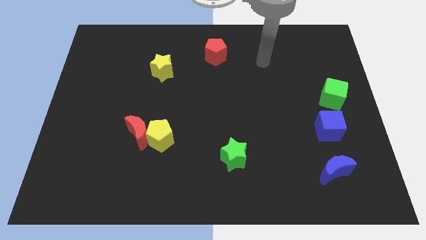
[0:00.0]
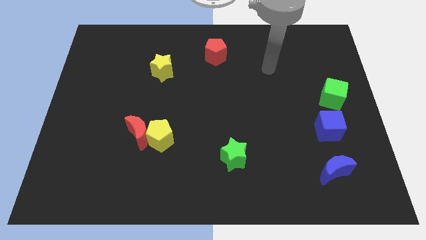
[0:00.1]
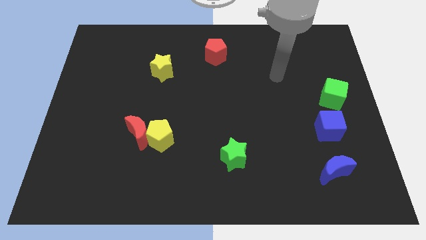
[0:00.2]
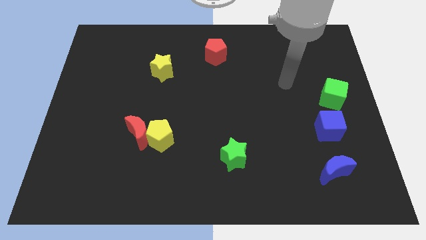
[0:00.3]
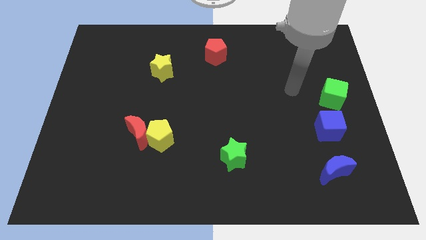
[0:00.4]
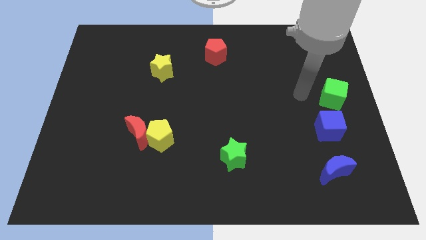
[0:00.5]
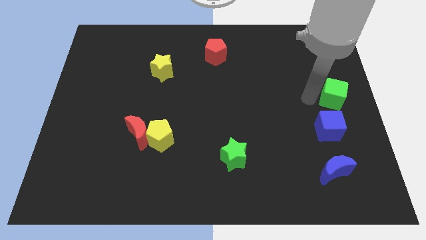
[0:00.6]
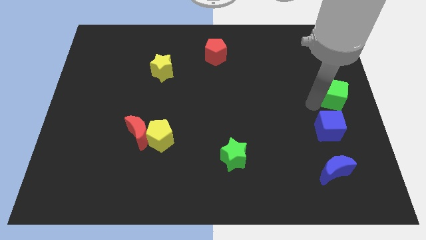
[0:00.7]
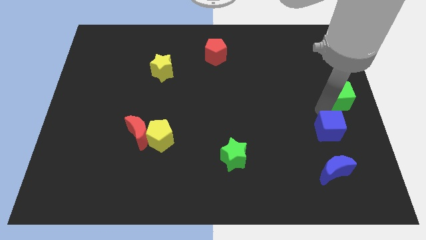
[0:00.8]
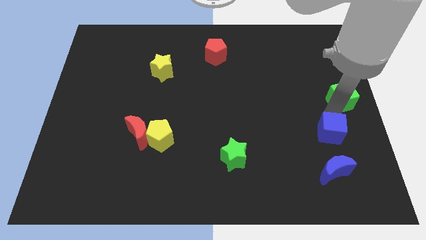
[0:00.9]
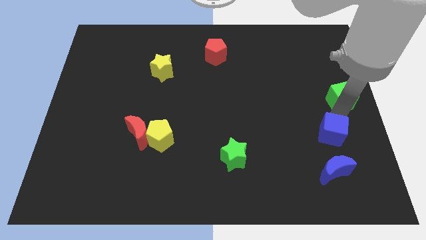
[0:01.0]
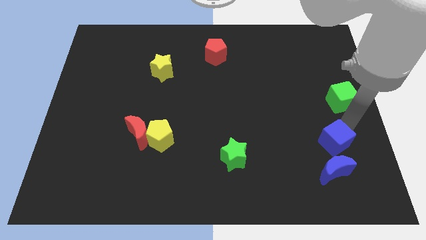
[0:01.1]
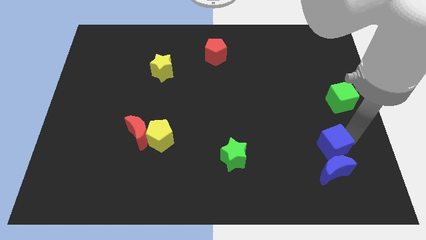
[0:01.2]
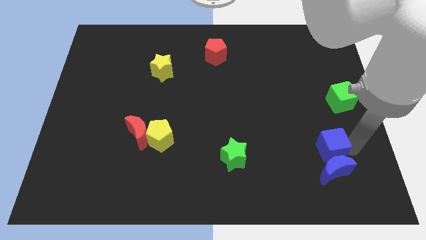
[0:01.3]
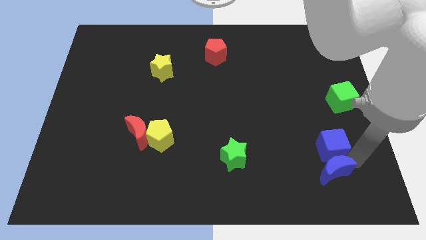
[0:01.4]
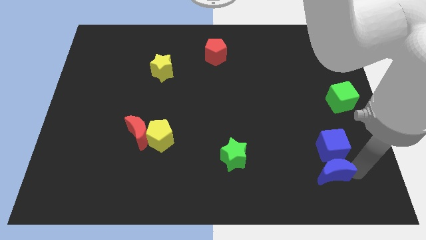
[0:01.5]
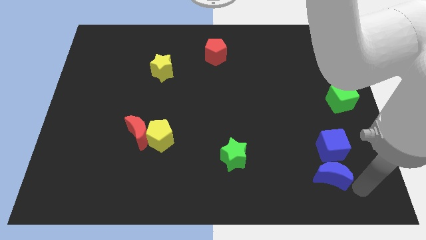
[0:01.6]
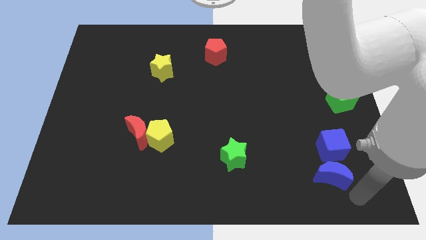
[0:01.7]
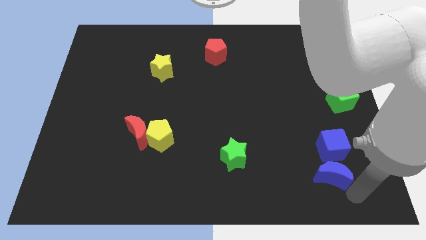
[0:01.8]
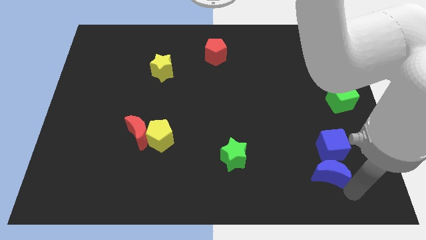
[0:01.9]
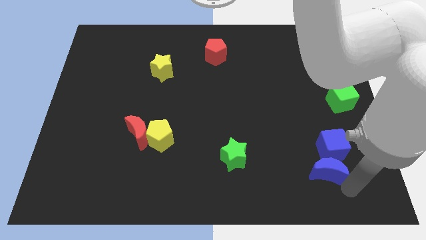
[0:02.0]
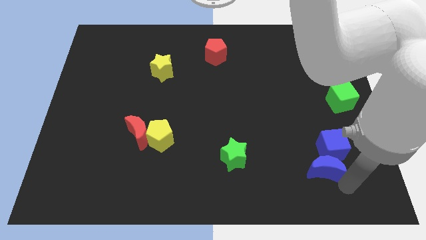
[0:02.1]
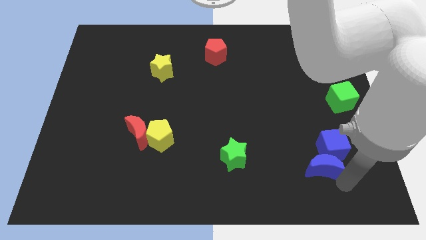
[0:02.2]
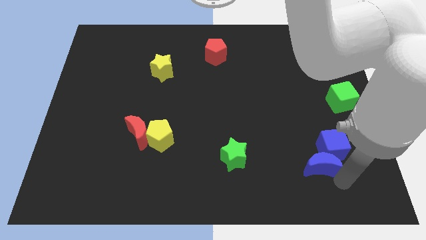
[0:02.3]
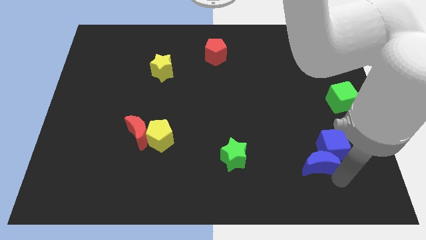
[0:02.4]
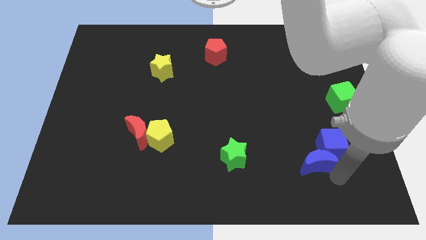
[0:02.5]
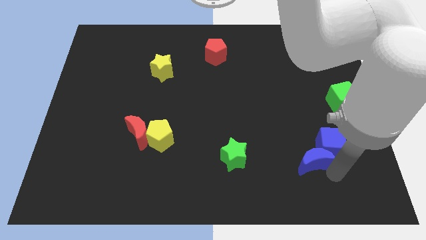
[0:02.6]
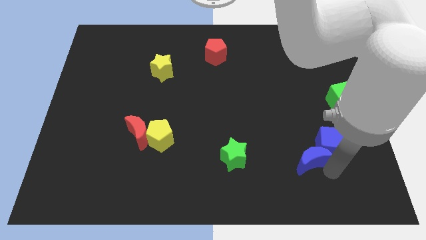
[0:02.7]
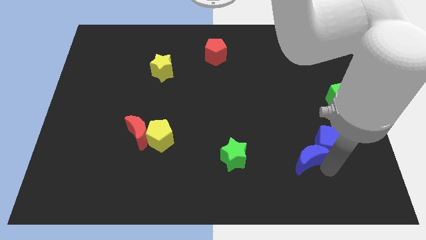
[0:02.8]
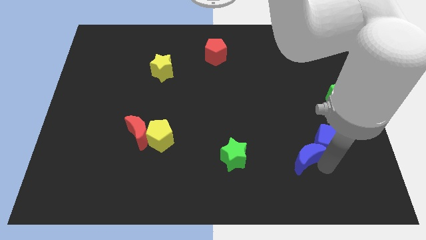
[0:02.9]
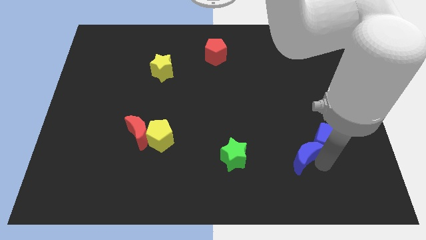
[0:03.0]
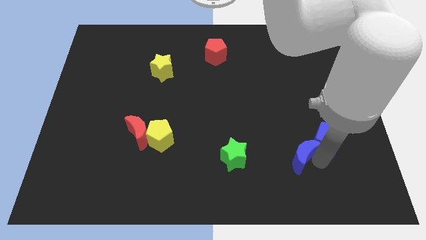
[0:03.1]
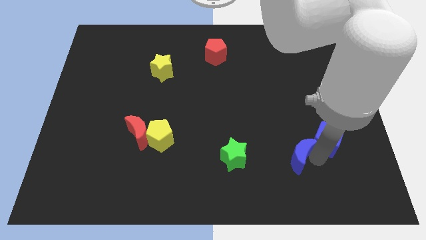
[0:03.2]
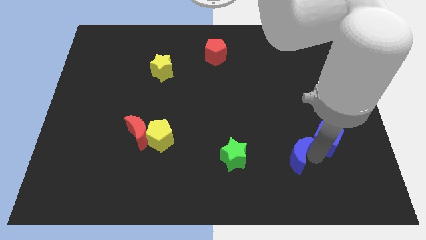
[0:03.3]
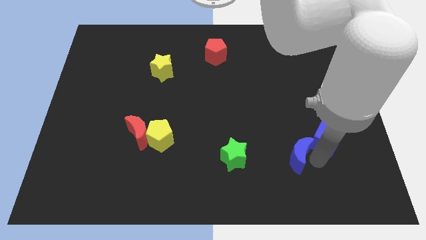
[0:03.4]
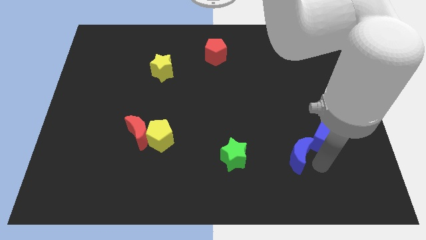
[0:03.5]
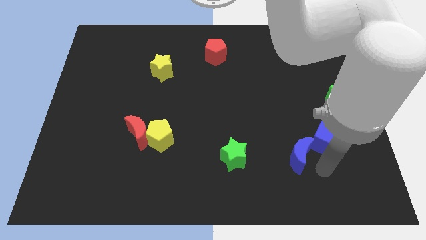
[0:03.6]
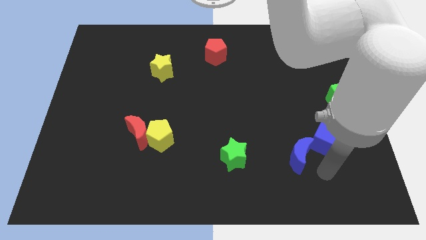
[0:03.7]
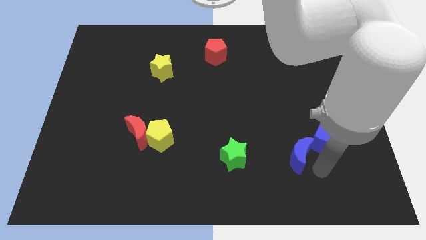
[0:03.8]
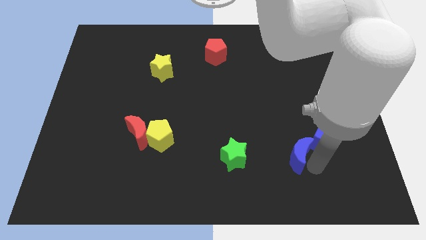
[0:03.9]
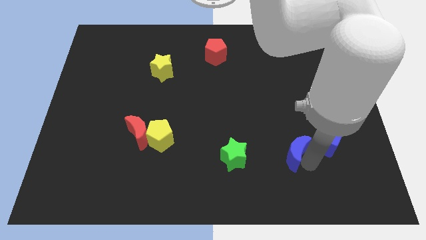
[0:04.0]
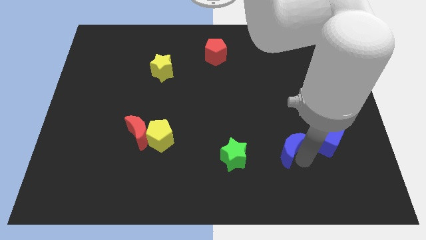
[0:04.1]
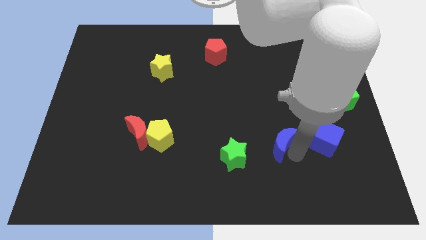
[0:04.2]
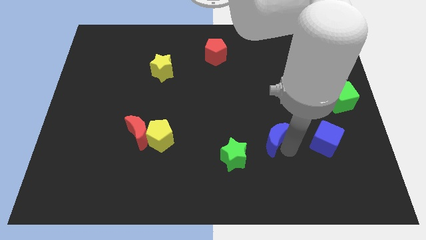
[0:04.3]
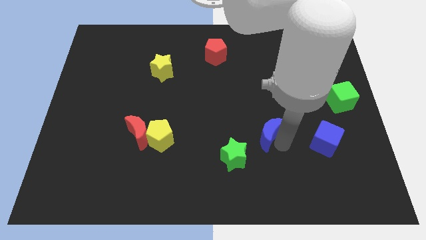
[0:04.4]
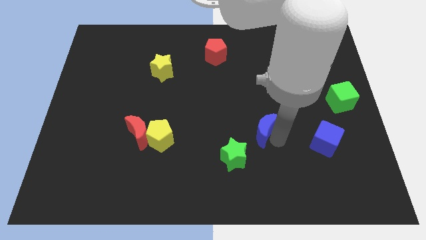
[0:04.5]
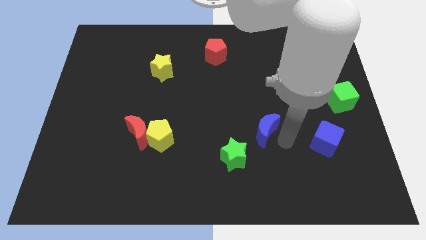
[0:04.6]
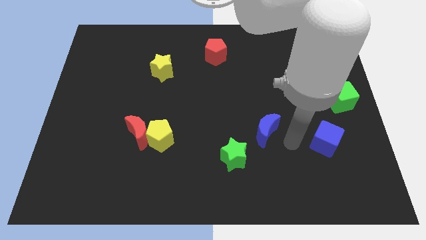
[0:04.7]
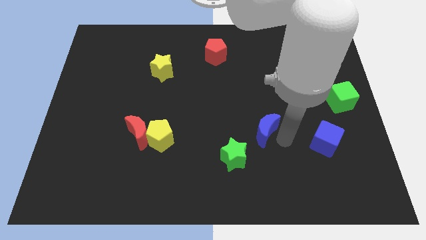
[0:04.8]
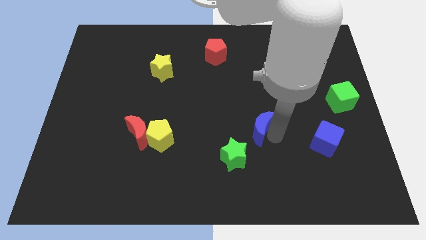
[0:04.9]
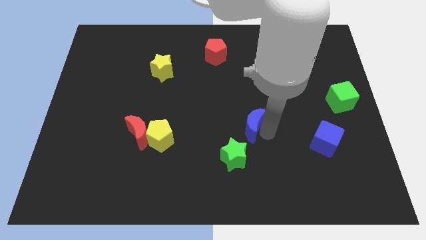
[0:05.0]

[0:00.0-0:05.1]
move the blue moon above the green star

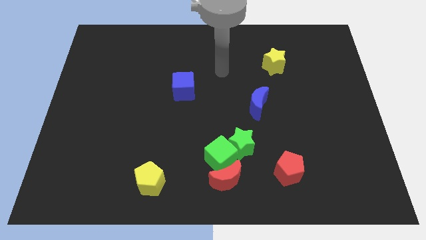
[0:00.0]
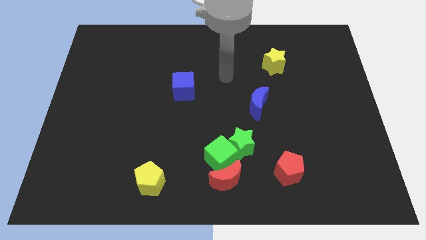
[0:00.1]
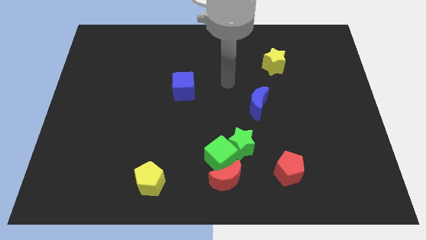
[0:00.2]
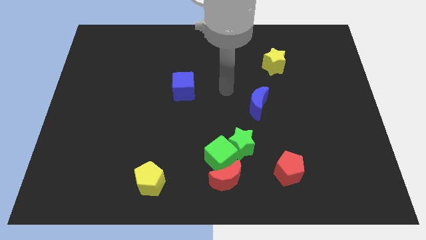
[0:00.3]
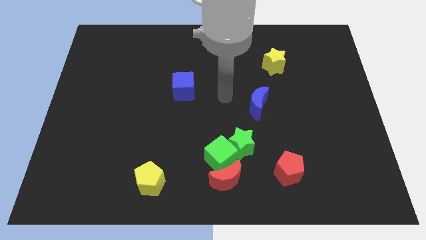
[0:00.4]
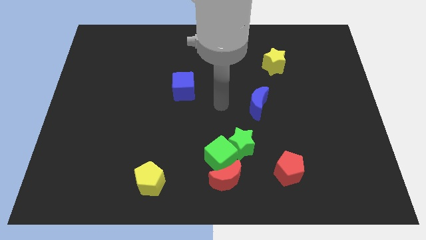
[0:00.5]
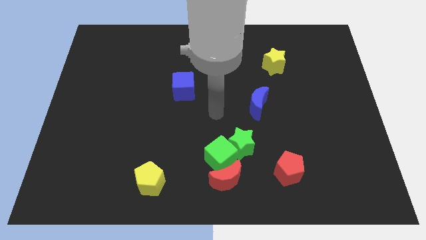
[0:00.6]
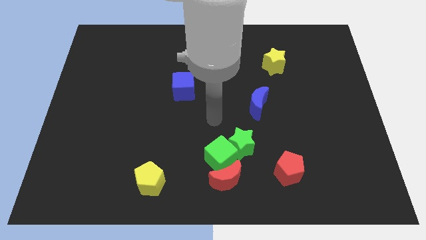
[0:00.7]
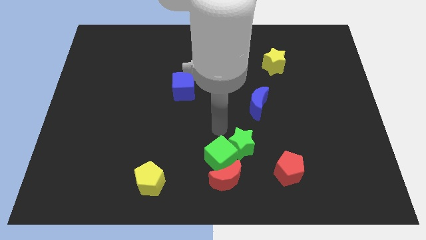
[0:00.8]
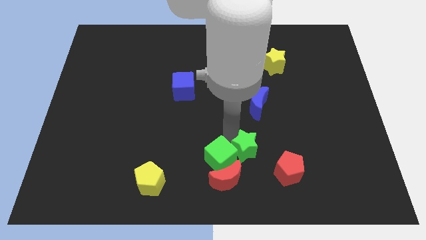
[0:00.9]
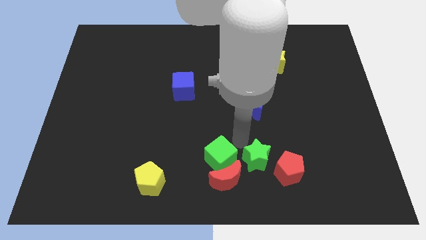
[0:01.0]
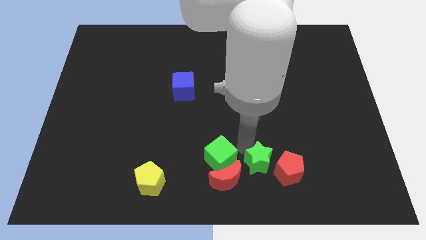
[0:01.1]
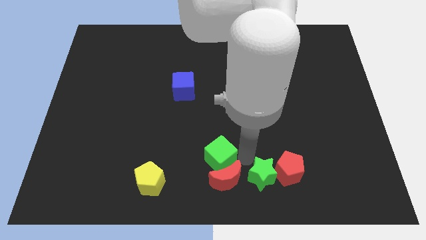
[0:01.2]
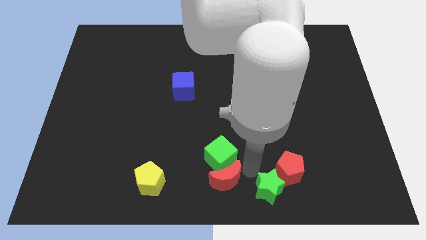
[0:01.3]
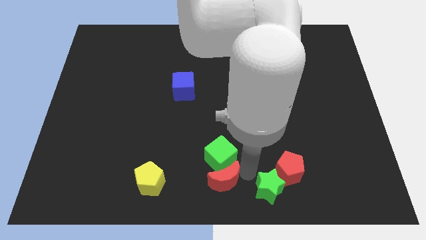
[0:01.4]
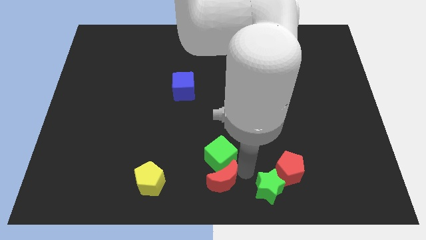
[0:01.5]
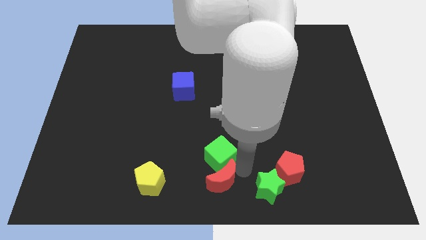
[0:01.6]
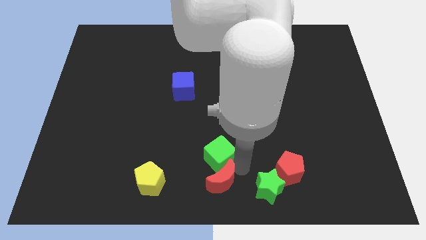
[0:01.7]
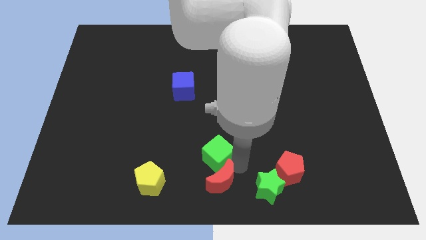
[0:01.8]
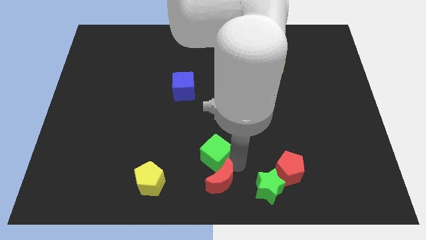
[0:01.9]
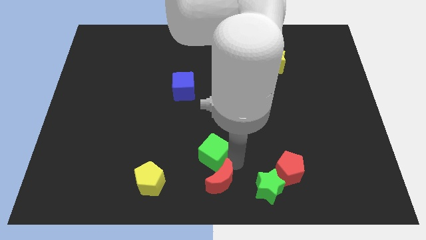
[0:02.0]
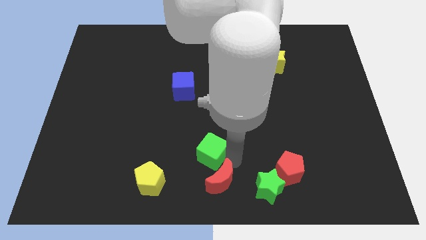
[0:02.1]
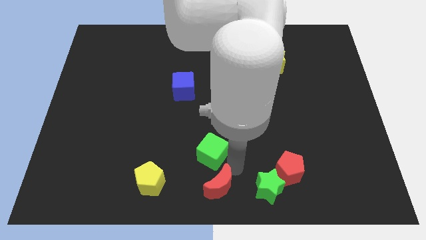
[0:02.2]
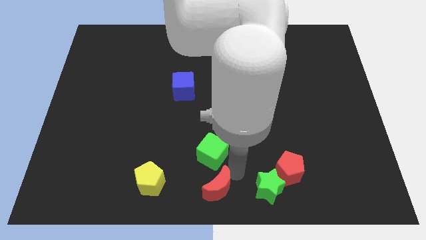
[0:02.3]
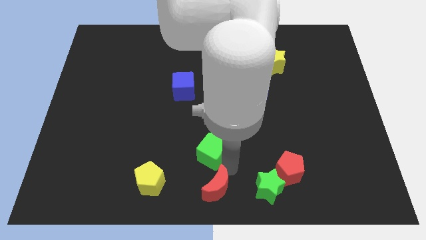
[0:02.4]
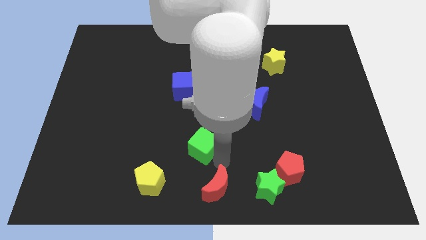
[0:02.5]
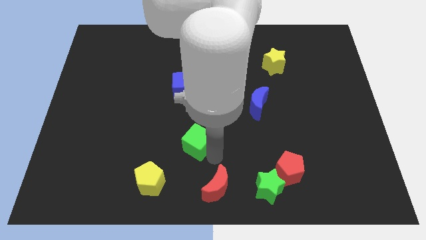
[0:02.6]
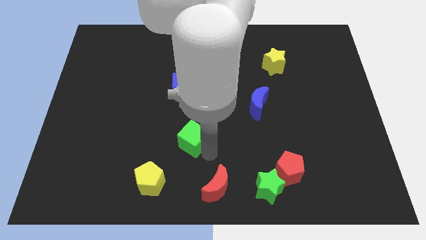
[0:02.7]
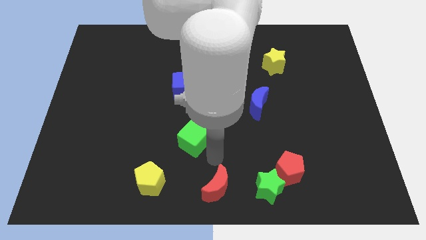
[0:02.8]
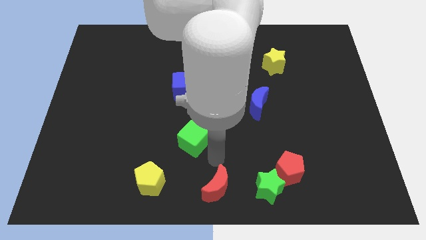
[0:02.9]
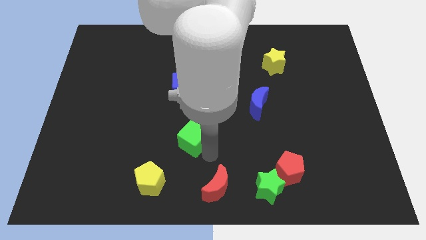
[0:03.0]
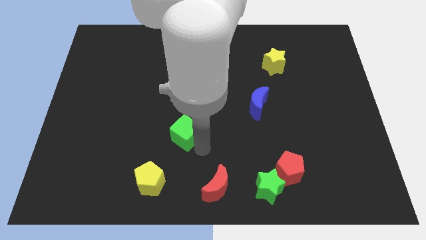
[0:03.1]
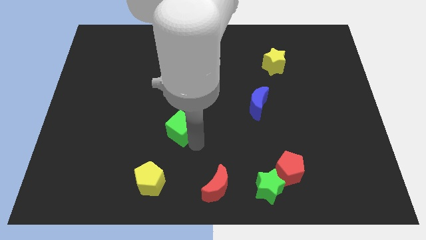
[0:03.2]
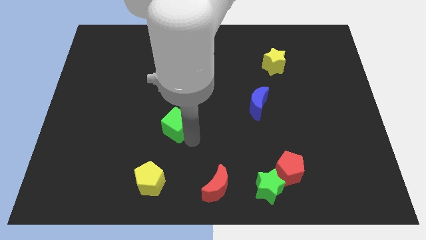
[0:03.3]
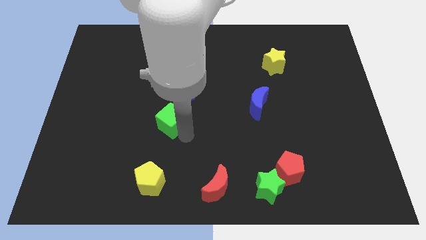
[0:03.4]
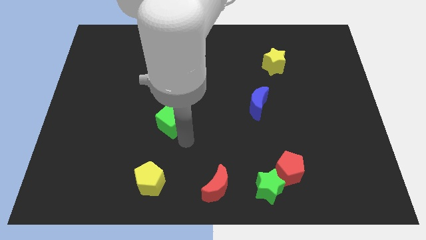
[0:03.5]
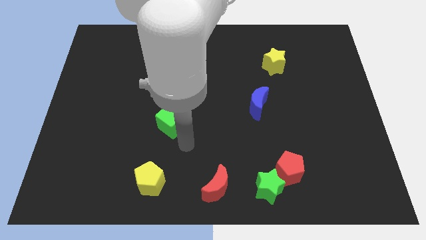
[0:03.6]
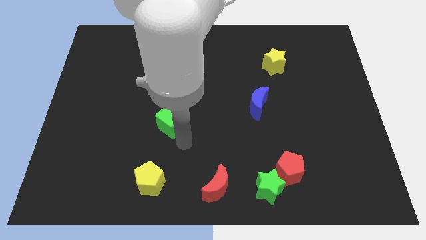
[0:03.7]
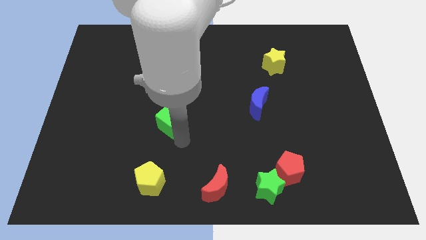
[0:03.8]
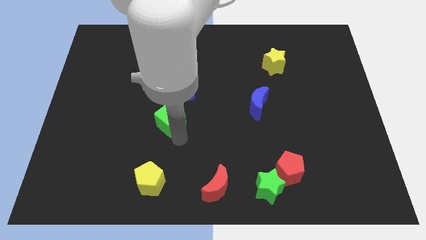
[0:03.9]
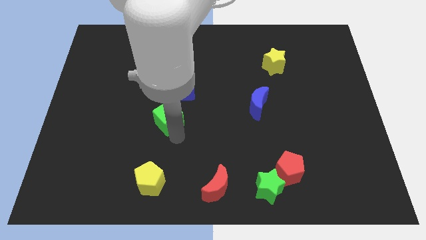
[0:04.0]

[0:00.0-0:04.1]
put the green cube diagonally down and to the left of the blue cube
